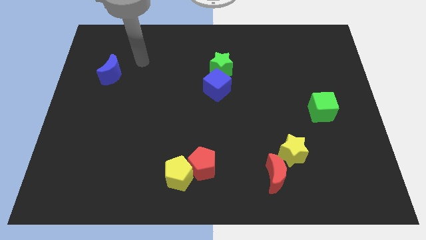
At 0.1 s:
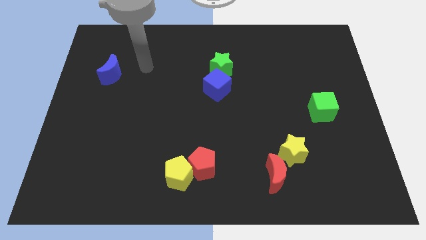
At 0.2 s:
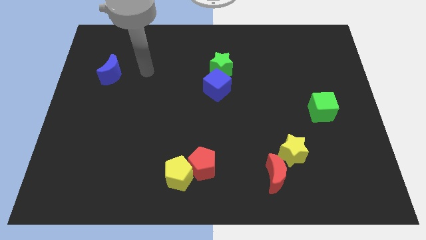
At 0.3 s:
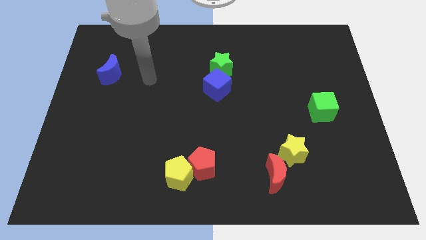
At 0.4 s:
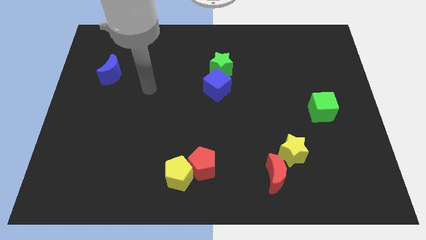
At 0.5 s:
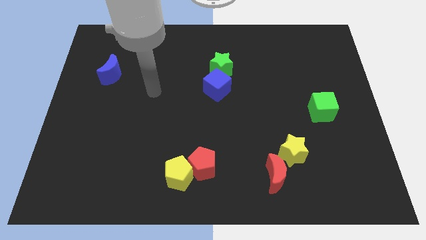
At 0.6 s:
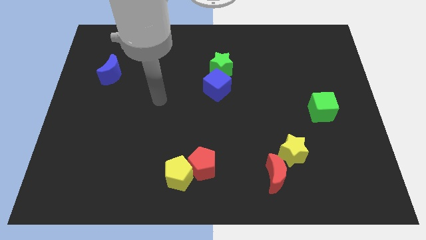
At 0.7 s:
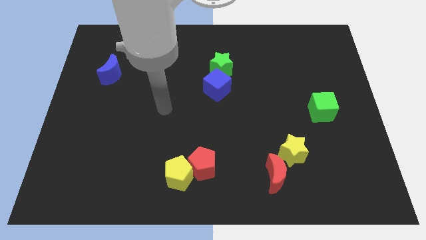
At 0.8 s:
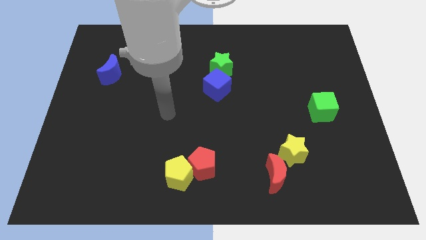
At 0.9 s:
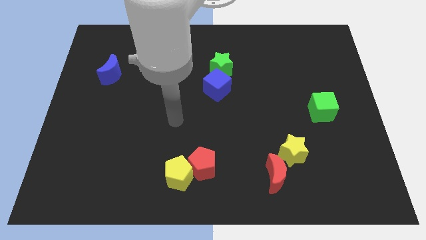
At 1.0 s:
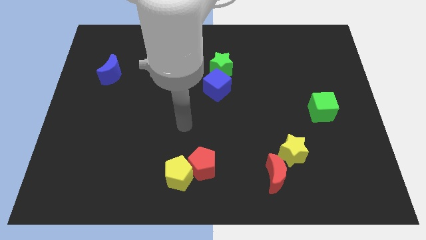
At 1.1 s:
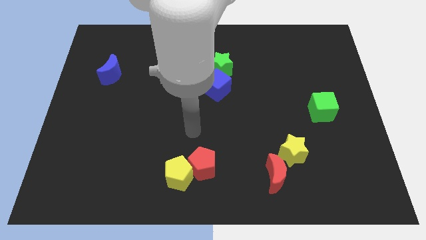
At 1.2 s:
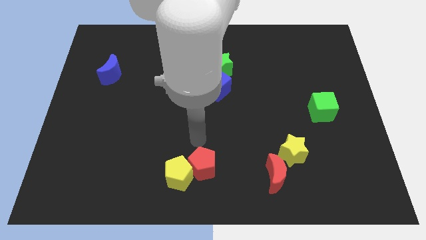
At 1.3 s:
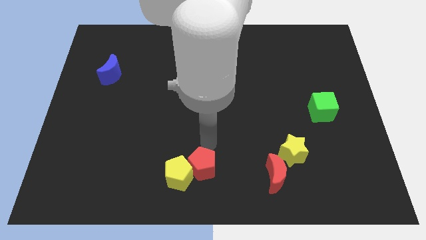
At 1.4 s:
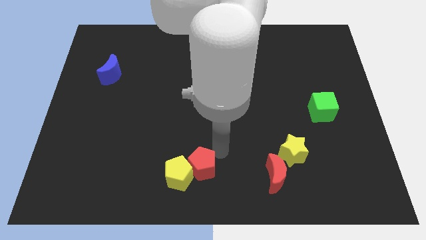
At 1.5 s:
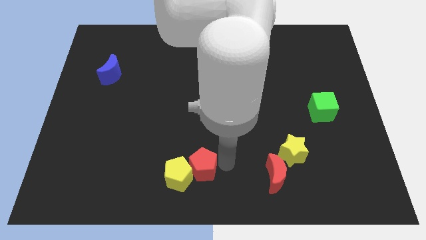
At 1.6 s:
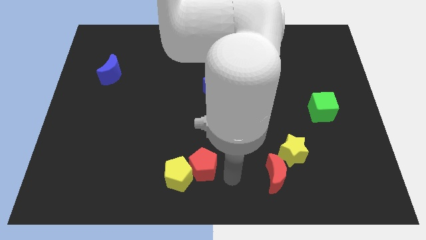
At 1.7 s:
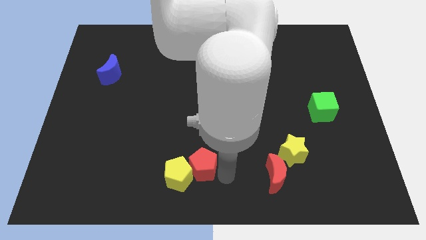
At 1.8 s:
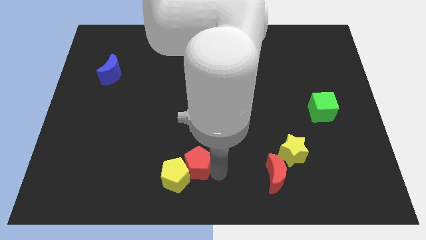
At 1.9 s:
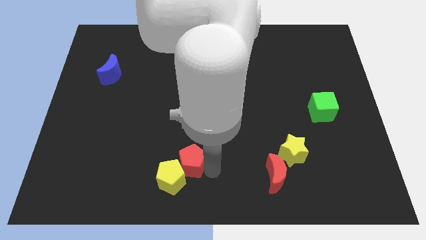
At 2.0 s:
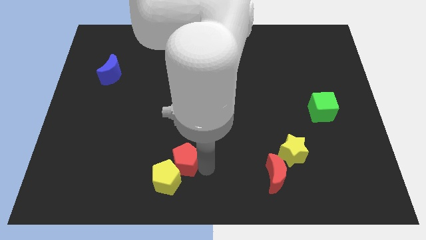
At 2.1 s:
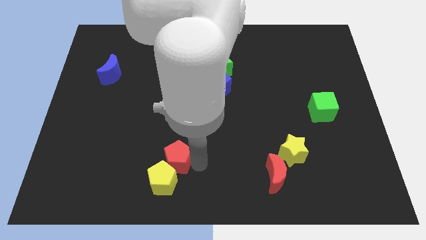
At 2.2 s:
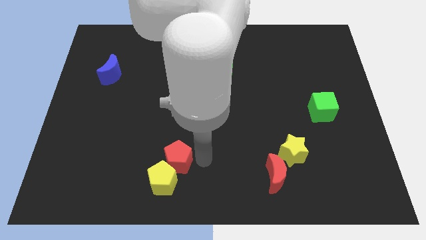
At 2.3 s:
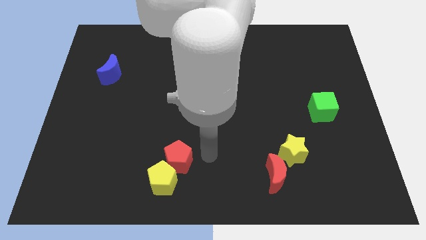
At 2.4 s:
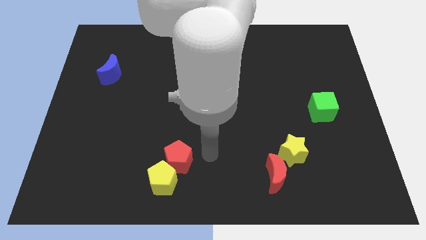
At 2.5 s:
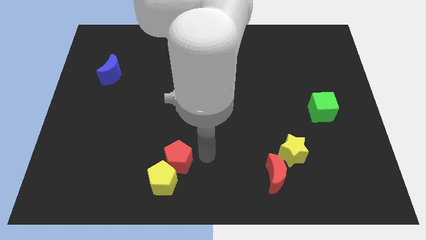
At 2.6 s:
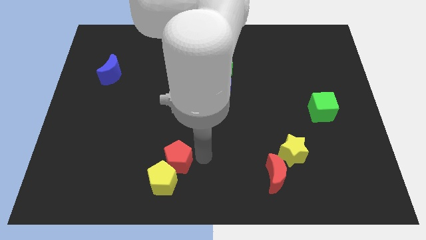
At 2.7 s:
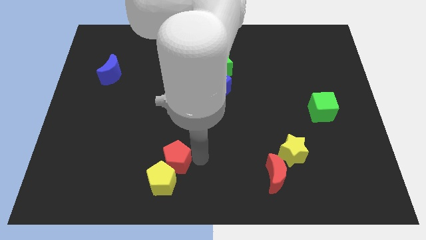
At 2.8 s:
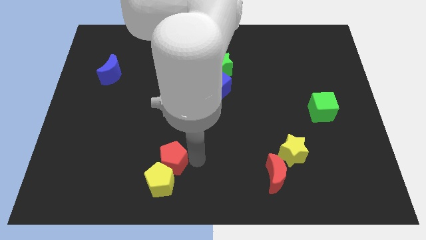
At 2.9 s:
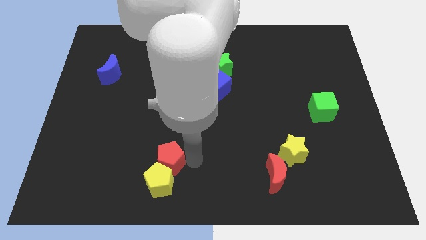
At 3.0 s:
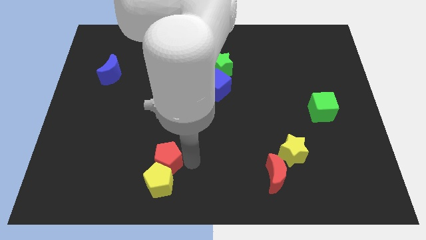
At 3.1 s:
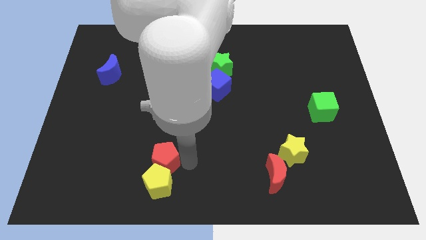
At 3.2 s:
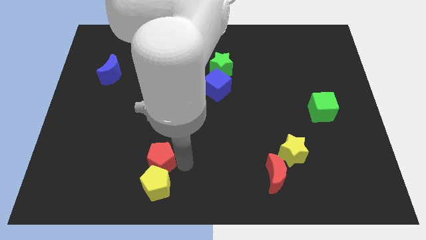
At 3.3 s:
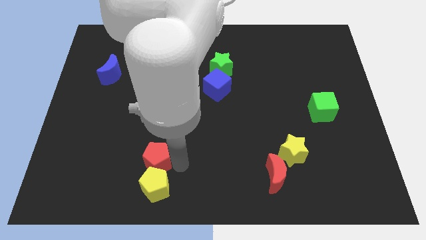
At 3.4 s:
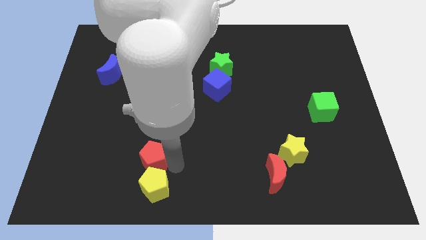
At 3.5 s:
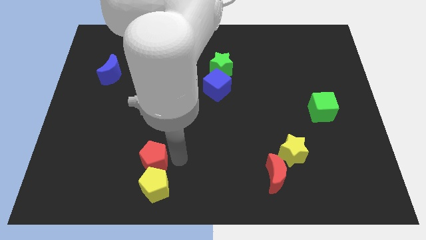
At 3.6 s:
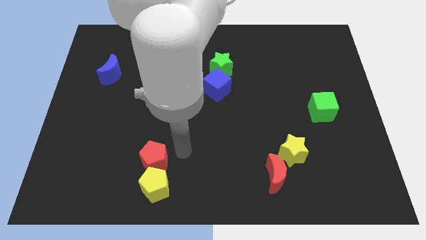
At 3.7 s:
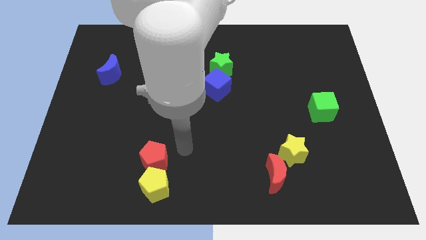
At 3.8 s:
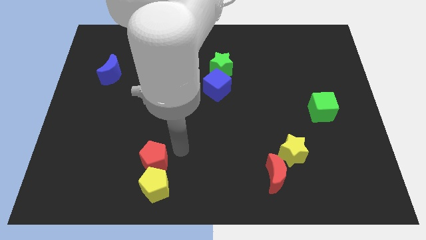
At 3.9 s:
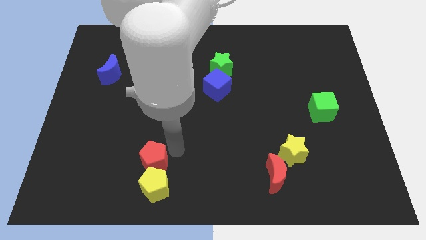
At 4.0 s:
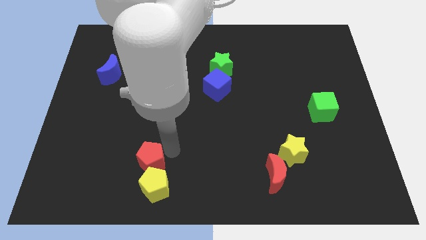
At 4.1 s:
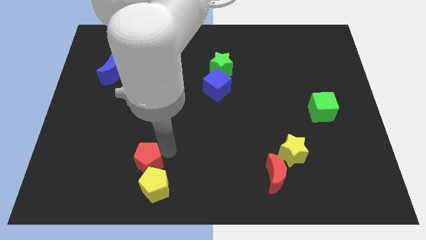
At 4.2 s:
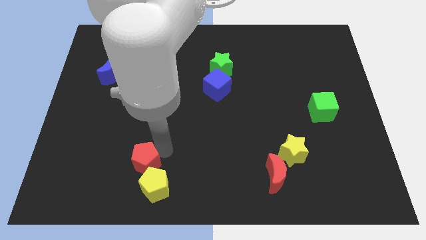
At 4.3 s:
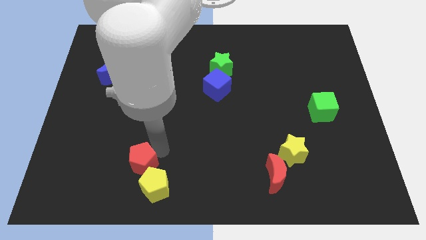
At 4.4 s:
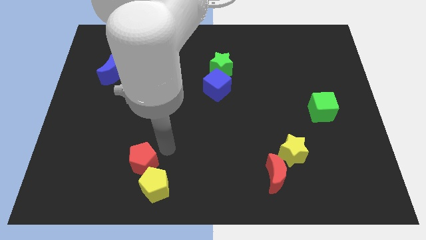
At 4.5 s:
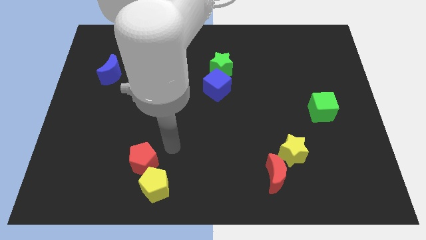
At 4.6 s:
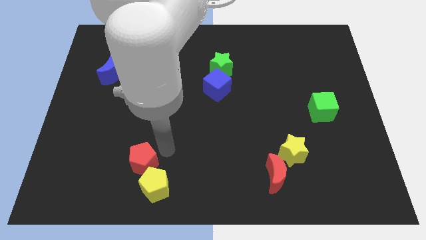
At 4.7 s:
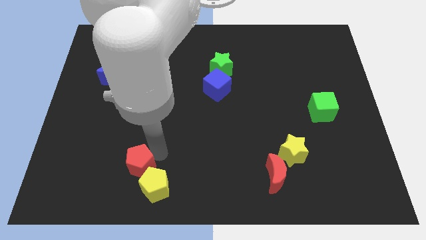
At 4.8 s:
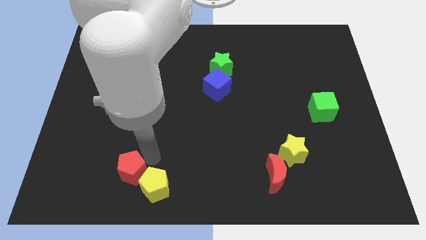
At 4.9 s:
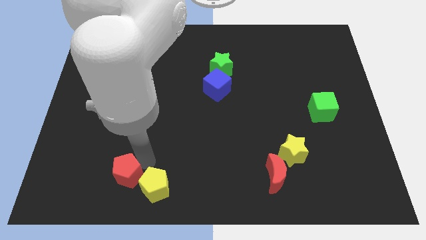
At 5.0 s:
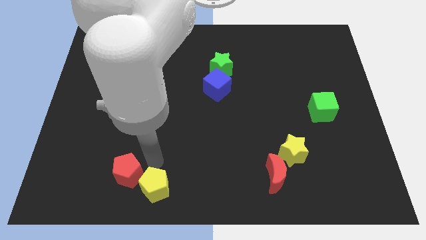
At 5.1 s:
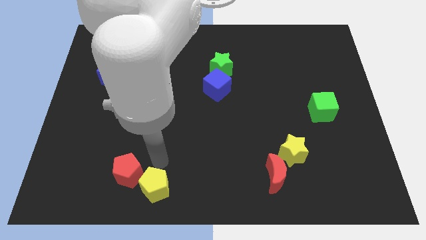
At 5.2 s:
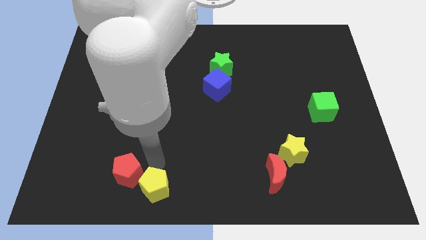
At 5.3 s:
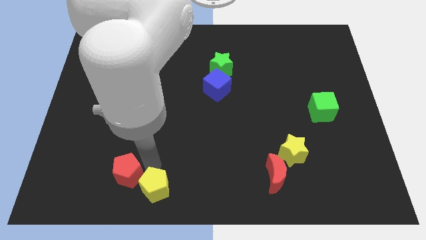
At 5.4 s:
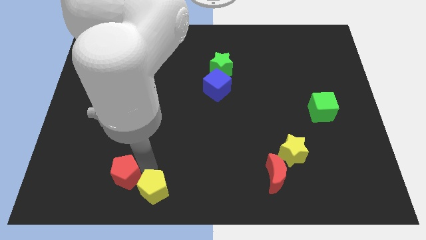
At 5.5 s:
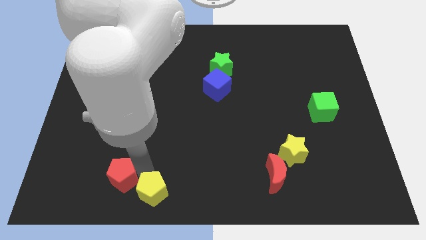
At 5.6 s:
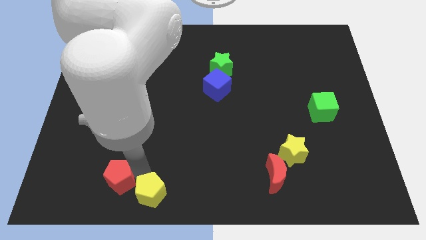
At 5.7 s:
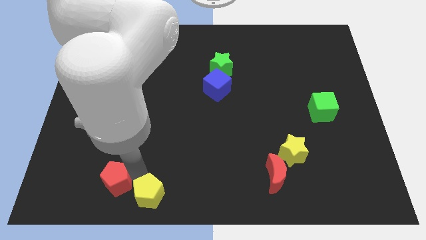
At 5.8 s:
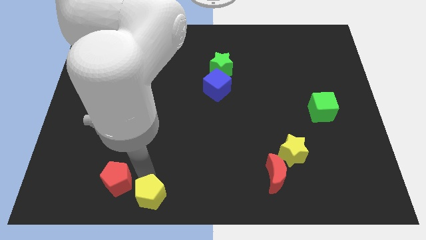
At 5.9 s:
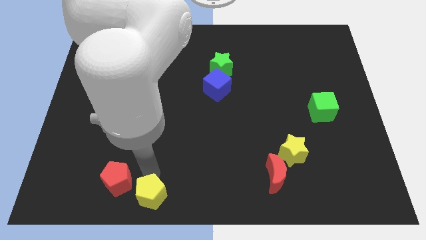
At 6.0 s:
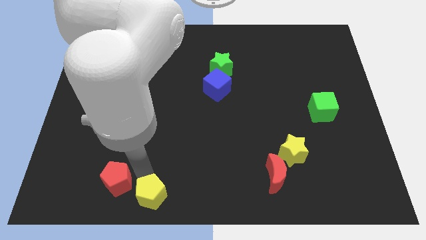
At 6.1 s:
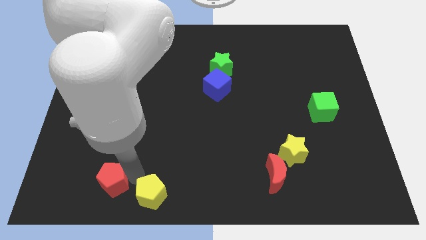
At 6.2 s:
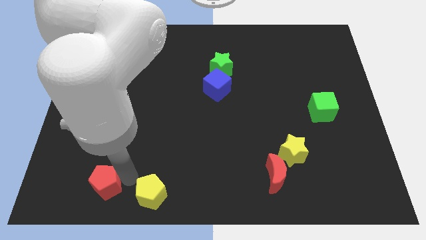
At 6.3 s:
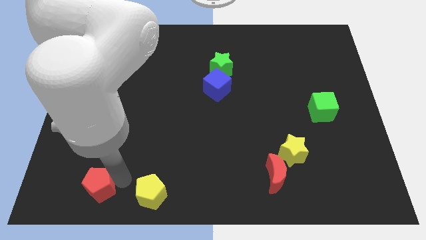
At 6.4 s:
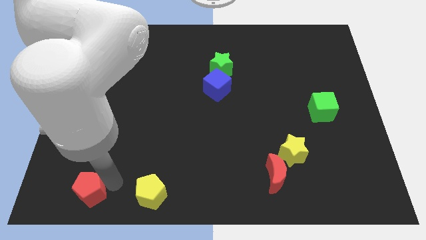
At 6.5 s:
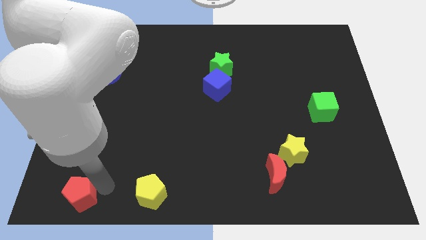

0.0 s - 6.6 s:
push the red pentagon to the bottom left
